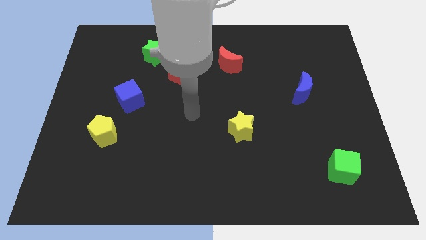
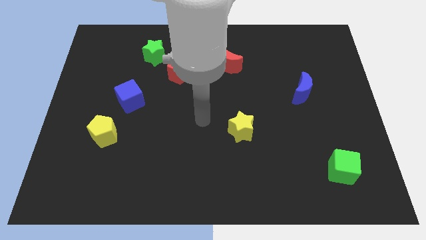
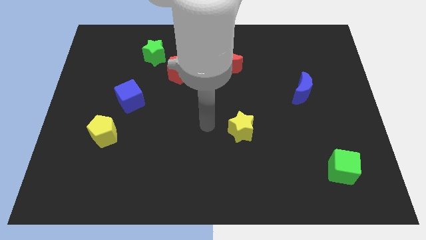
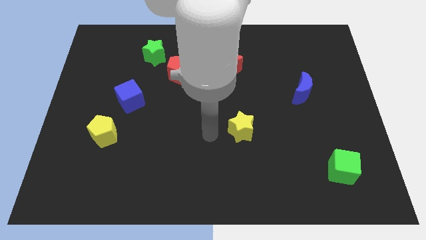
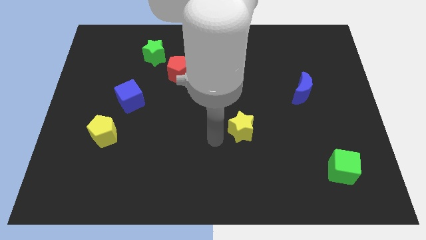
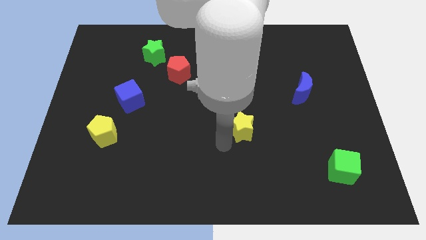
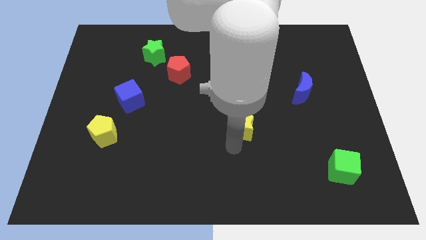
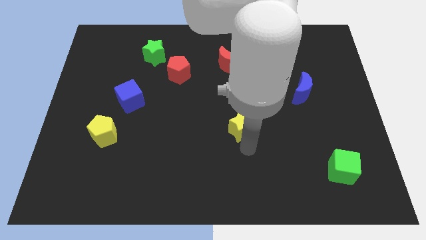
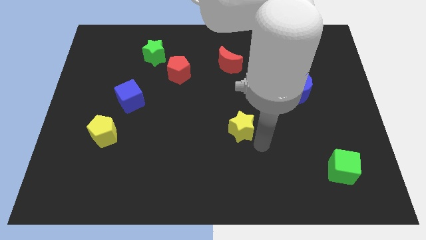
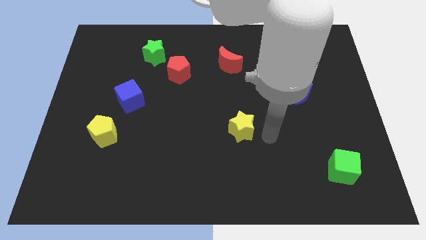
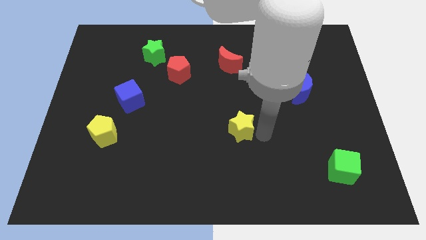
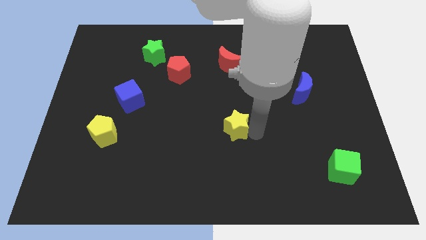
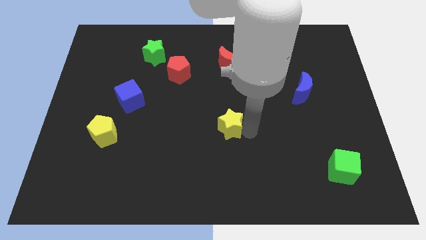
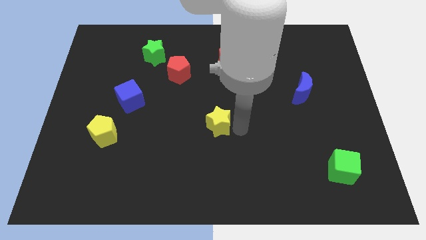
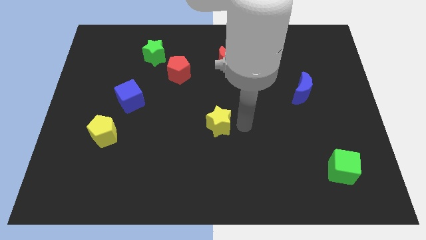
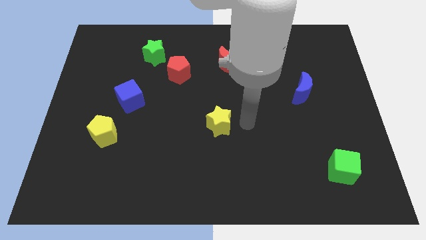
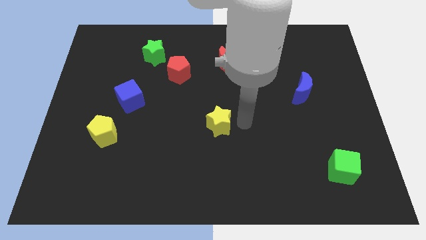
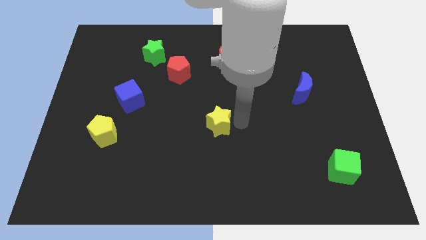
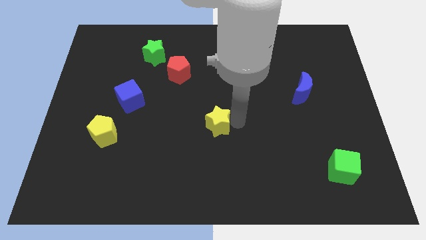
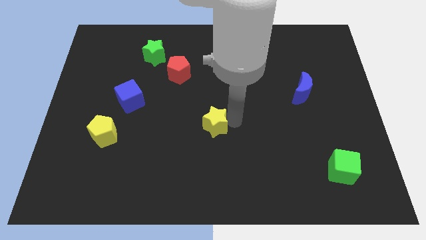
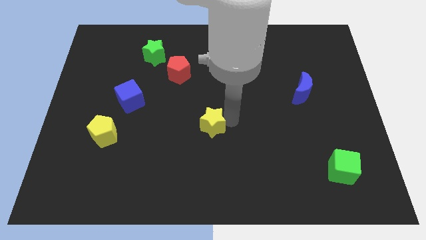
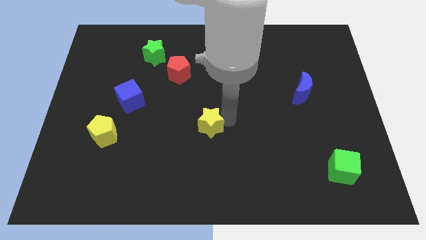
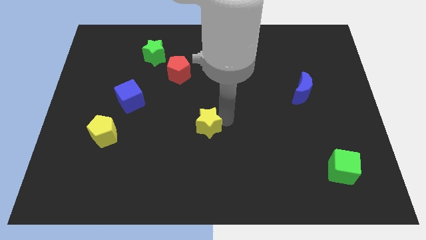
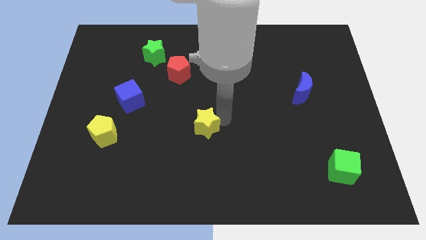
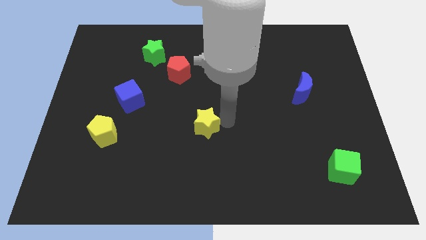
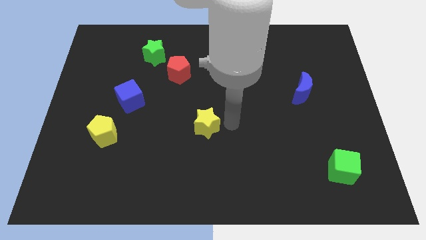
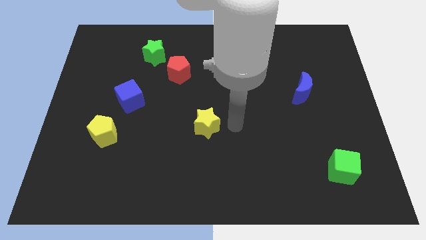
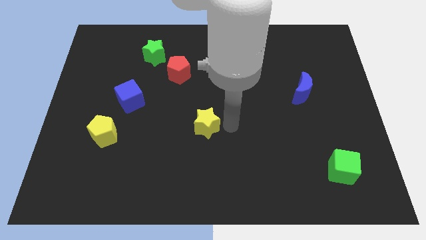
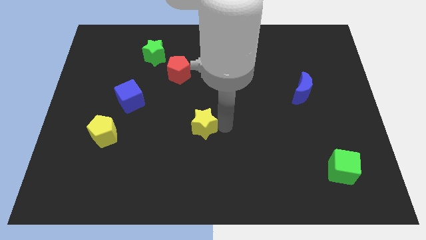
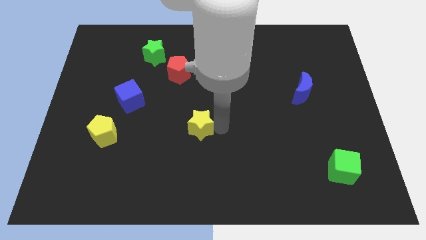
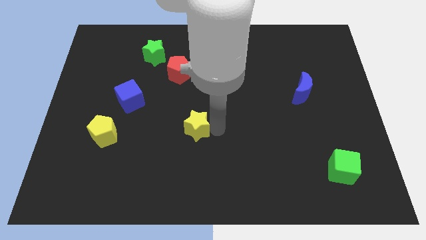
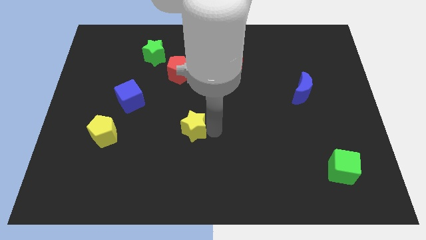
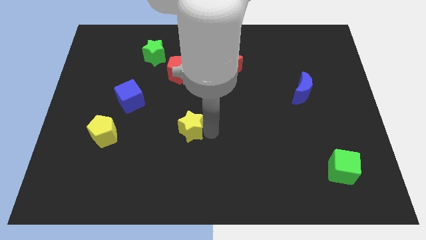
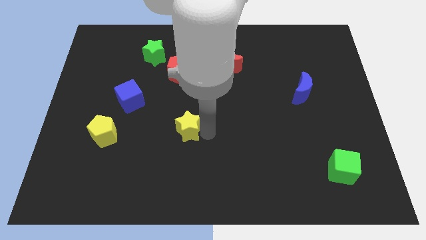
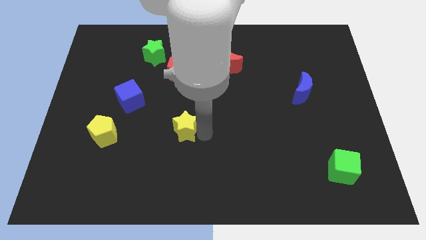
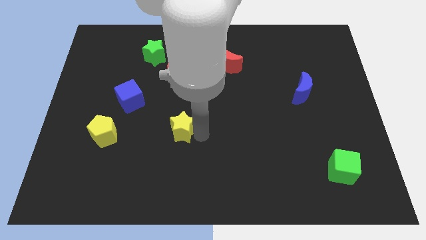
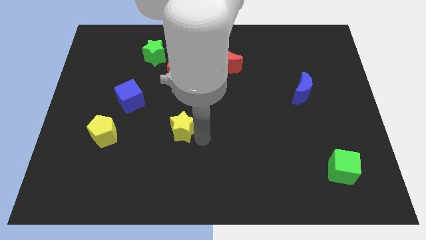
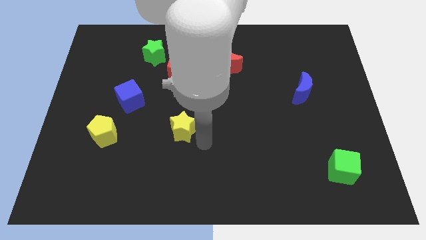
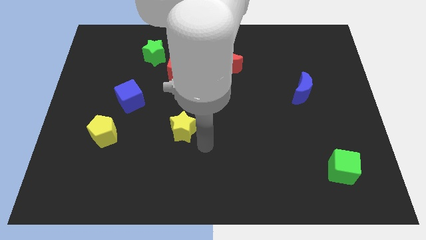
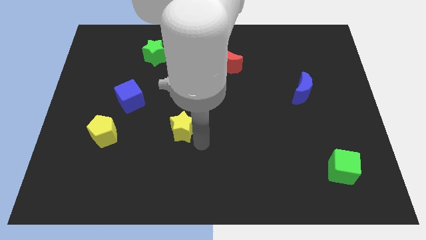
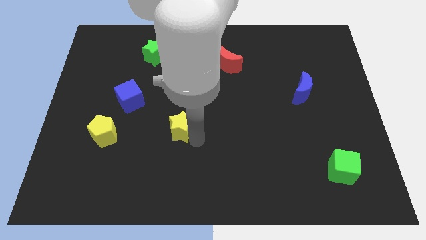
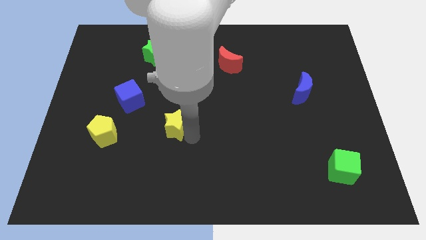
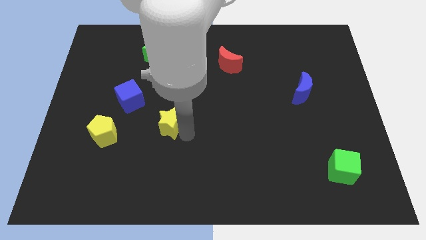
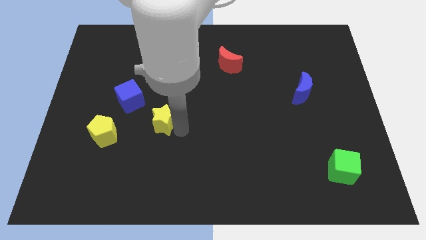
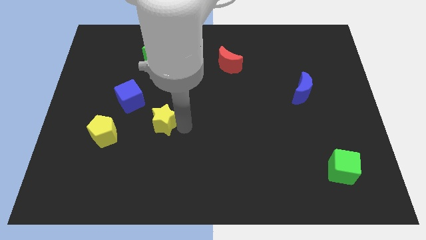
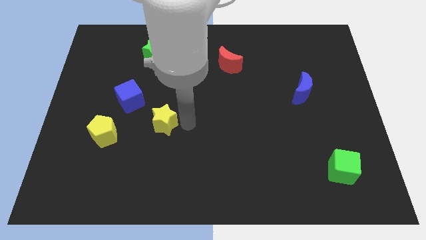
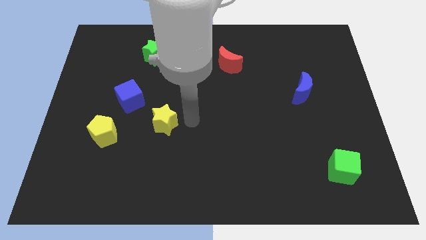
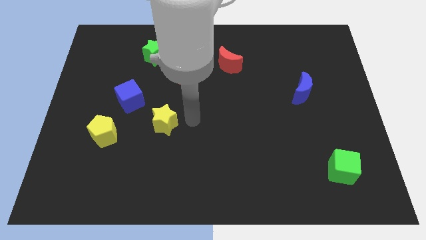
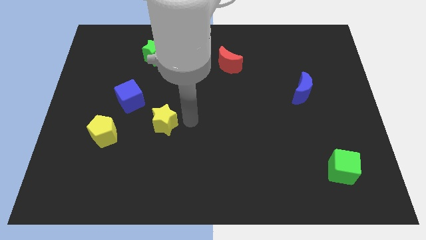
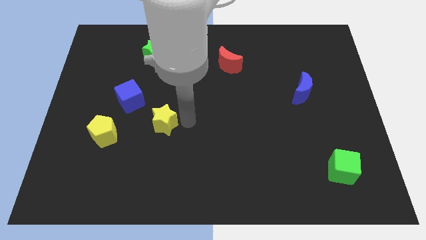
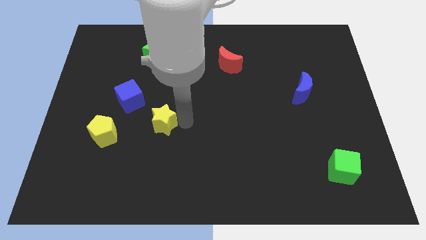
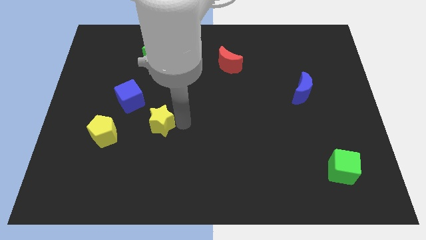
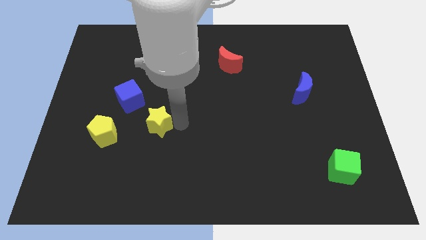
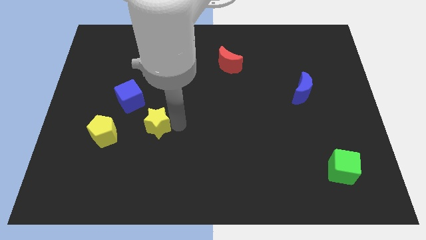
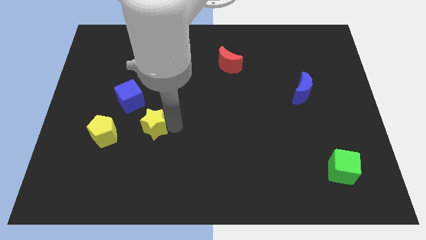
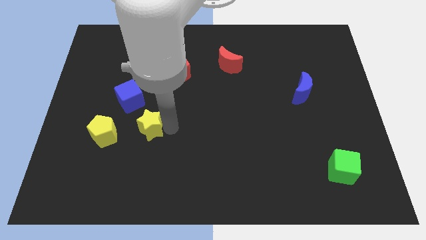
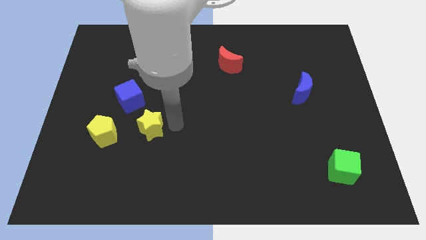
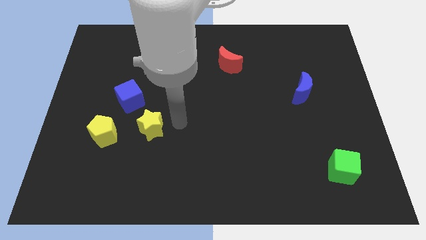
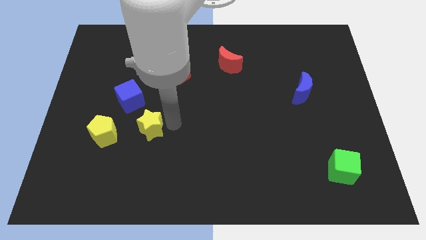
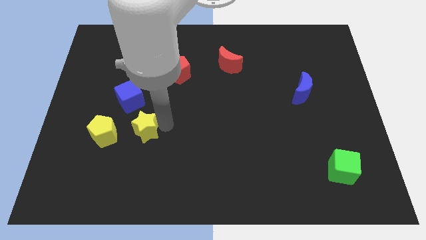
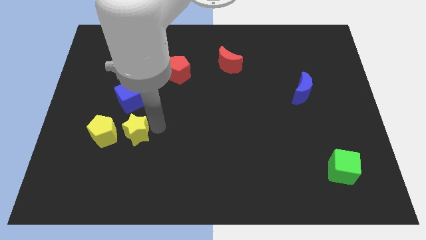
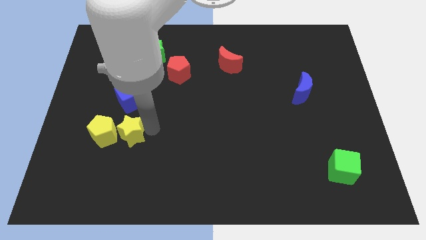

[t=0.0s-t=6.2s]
put the yellow star towards the yellow pentagon
